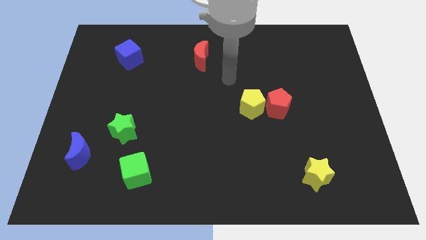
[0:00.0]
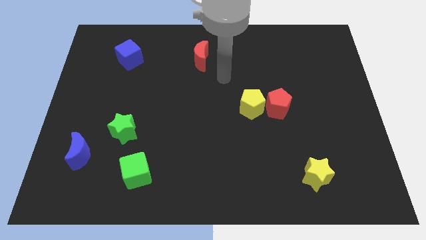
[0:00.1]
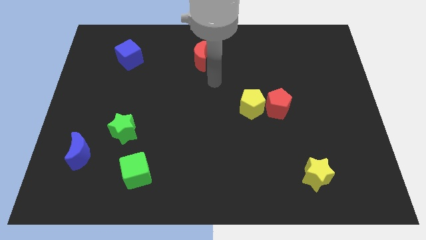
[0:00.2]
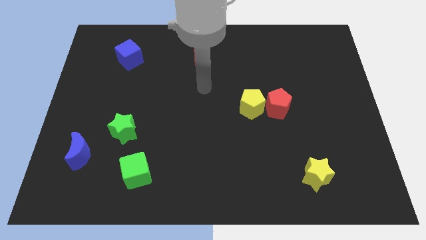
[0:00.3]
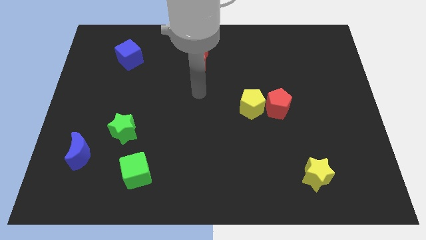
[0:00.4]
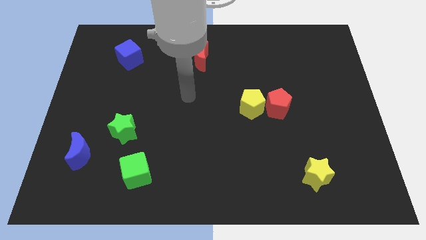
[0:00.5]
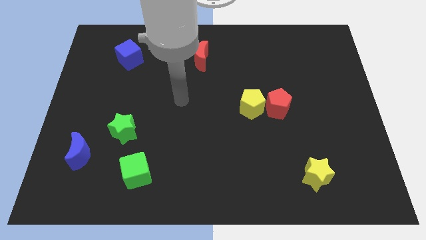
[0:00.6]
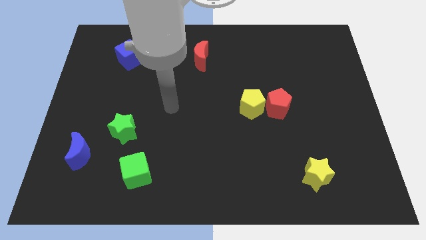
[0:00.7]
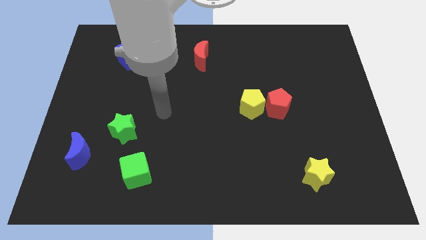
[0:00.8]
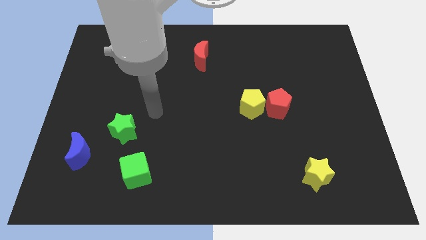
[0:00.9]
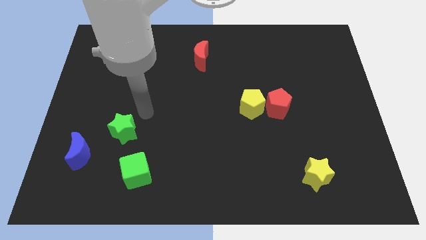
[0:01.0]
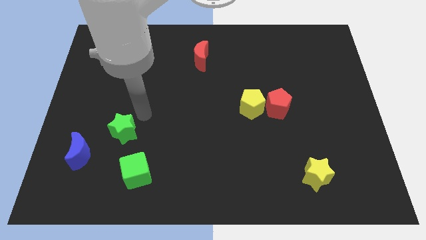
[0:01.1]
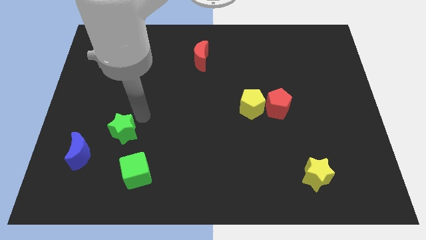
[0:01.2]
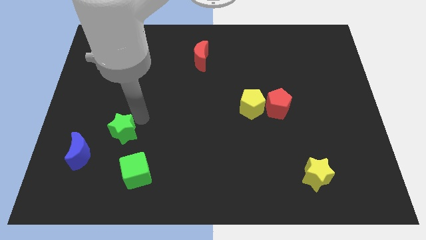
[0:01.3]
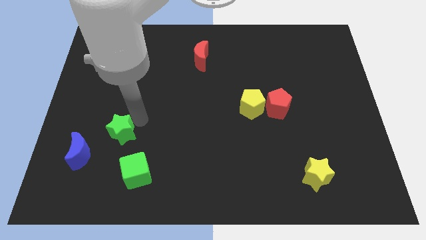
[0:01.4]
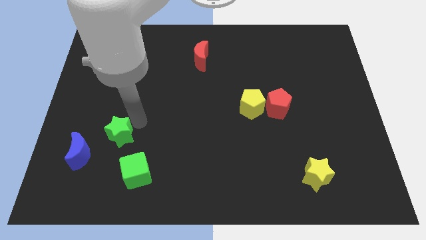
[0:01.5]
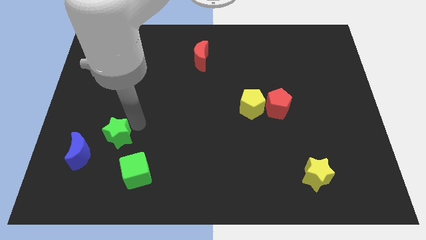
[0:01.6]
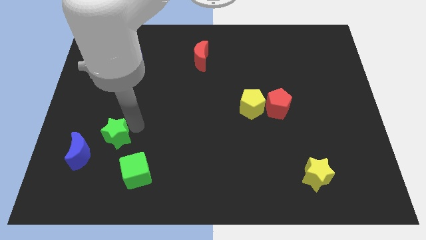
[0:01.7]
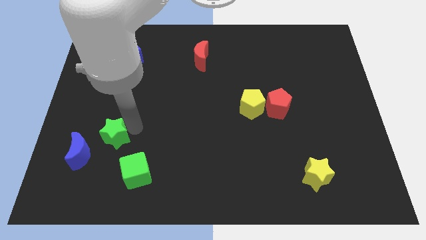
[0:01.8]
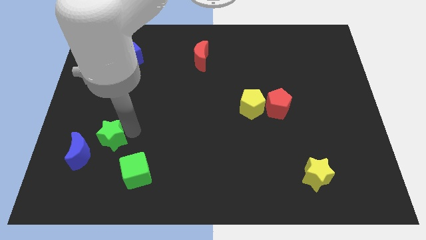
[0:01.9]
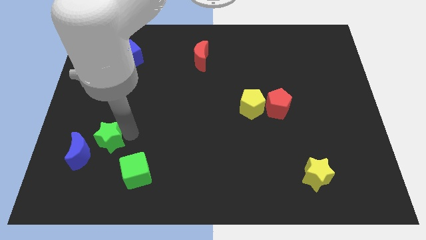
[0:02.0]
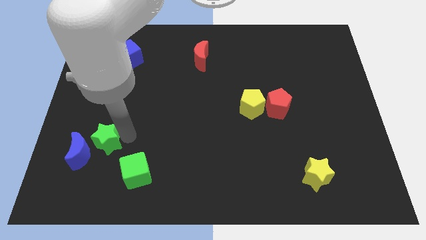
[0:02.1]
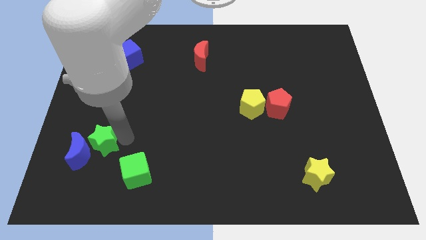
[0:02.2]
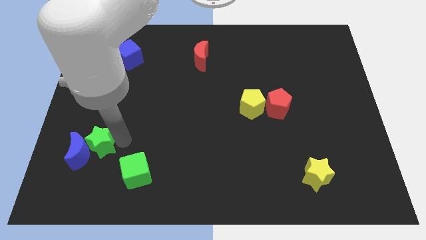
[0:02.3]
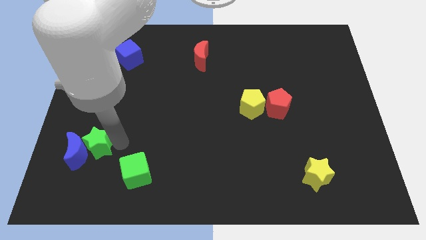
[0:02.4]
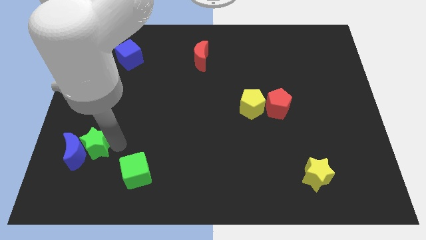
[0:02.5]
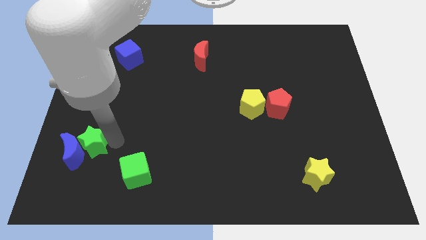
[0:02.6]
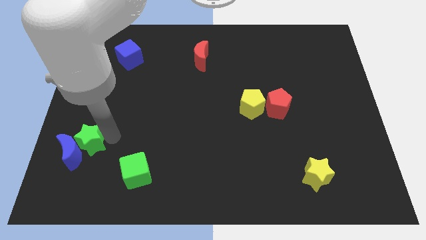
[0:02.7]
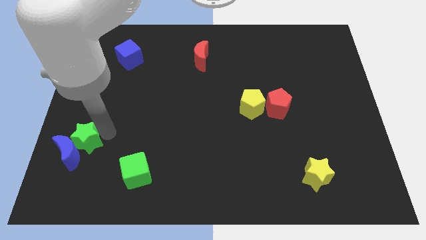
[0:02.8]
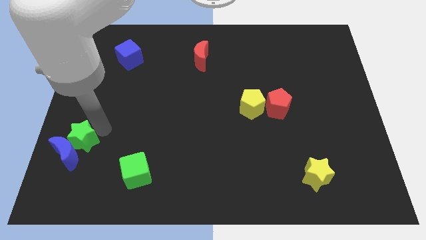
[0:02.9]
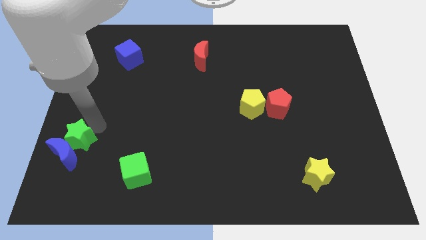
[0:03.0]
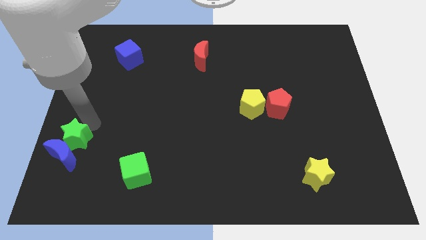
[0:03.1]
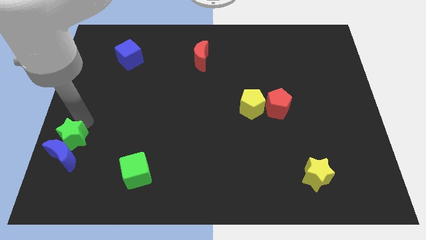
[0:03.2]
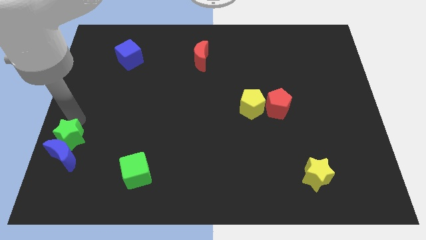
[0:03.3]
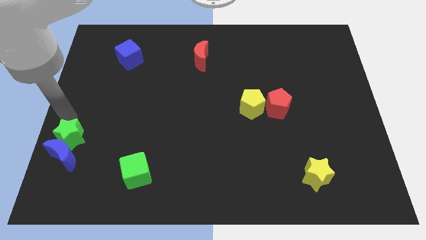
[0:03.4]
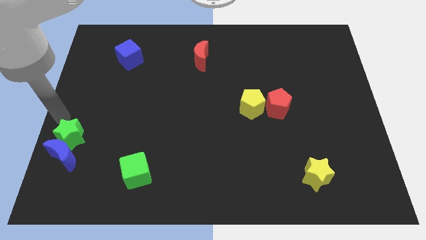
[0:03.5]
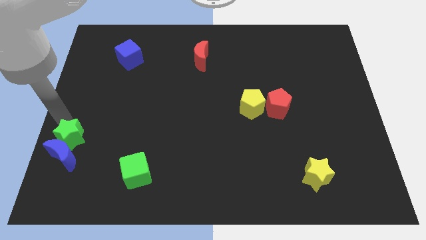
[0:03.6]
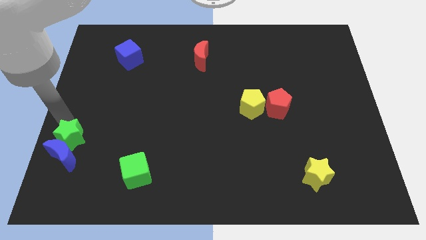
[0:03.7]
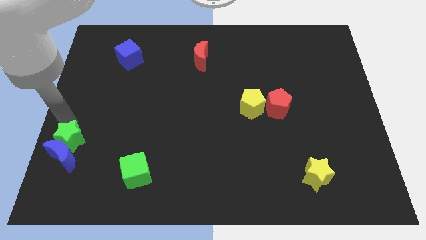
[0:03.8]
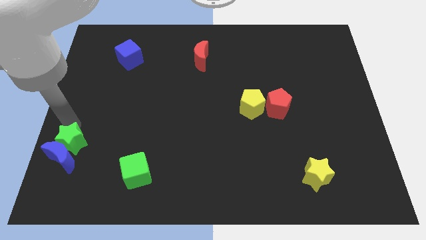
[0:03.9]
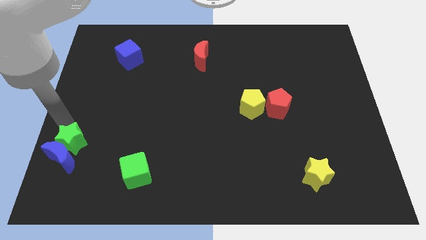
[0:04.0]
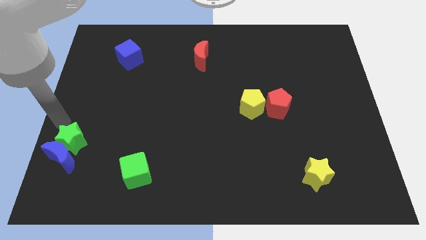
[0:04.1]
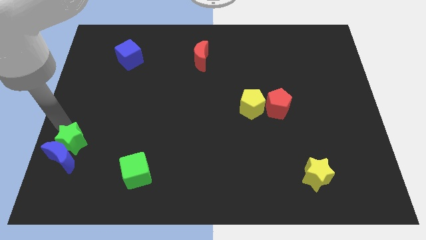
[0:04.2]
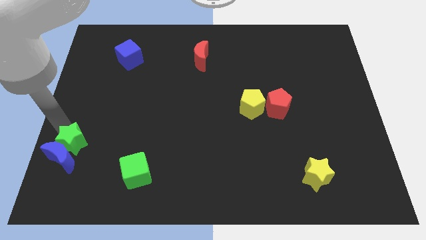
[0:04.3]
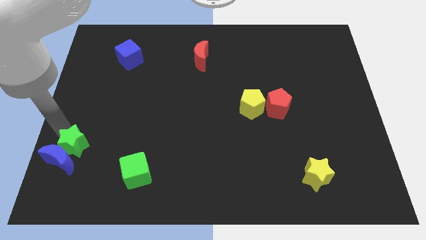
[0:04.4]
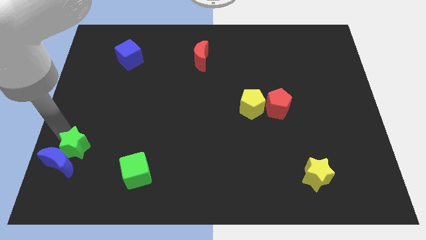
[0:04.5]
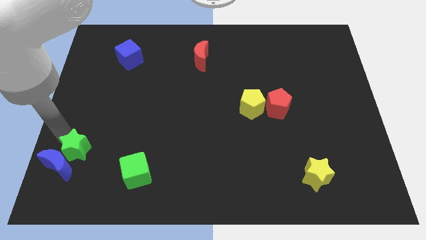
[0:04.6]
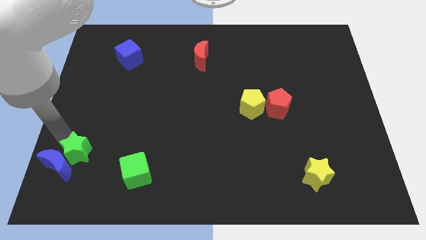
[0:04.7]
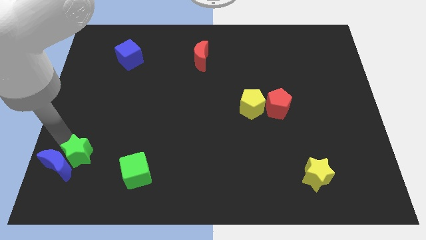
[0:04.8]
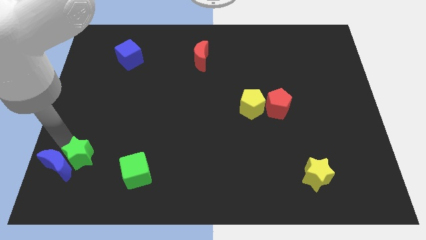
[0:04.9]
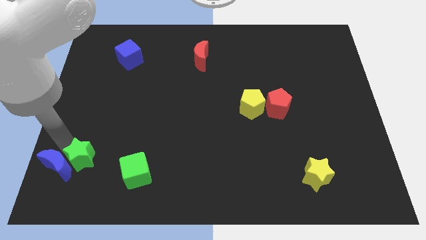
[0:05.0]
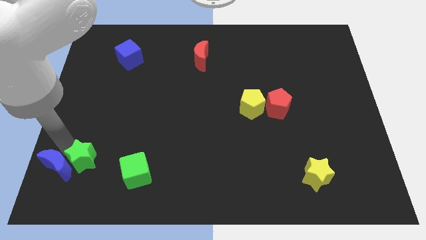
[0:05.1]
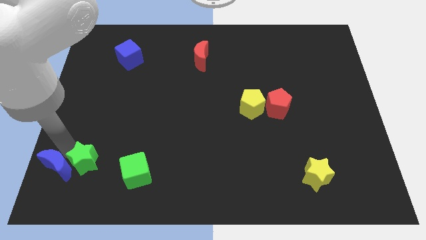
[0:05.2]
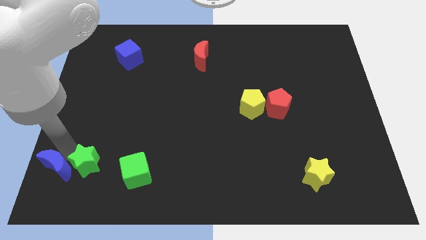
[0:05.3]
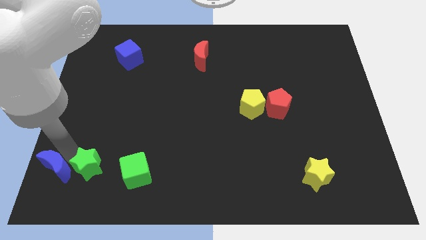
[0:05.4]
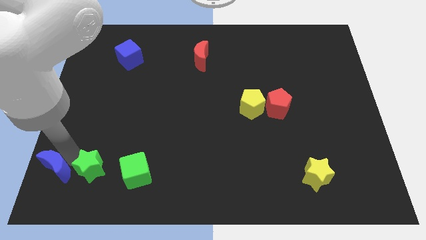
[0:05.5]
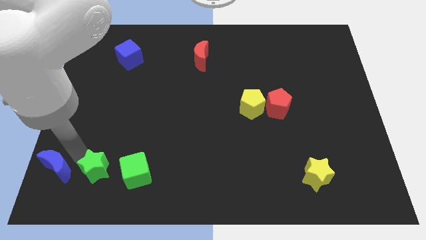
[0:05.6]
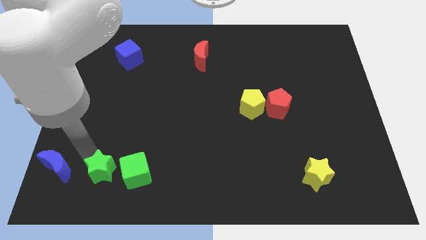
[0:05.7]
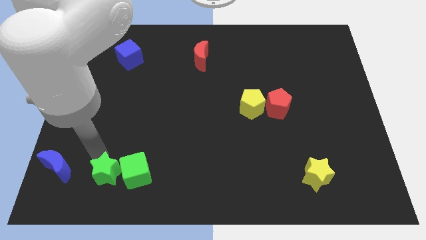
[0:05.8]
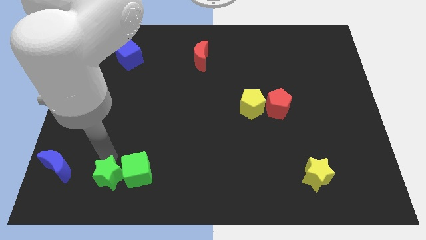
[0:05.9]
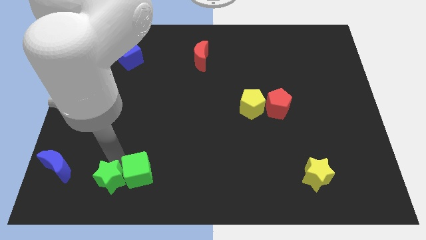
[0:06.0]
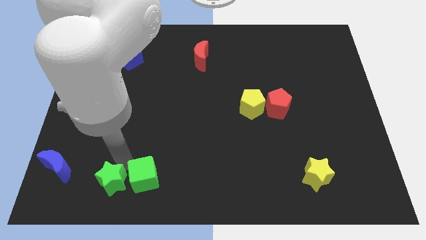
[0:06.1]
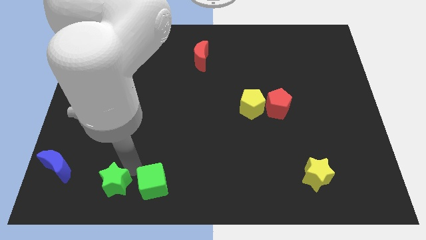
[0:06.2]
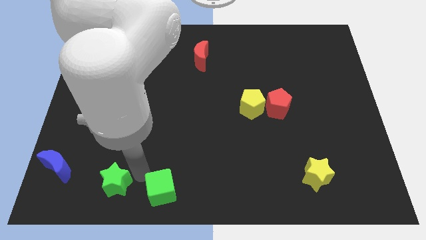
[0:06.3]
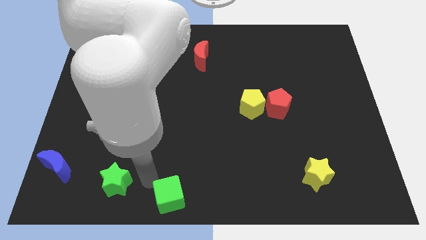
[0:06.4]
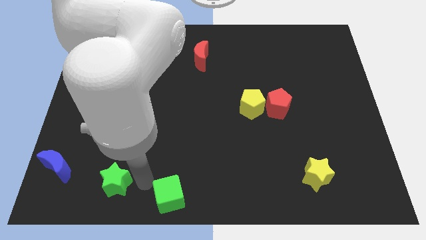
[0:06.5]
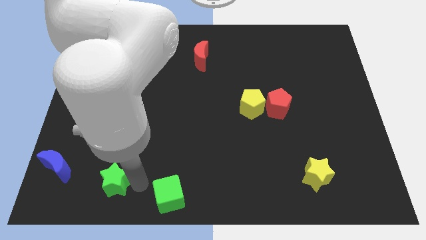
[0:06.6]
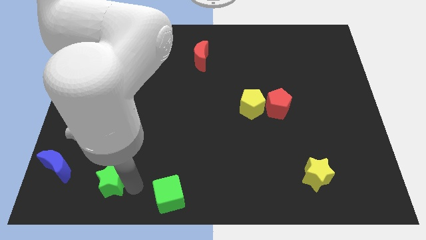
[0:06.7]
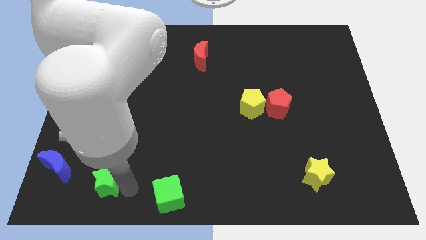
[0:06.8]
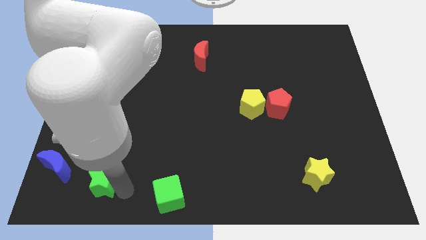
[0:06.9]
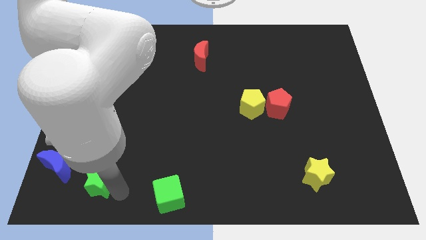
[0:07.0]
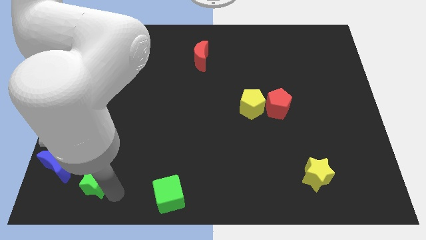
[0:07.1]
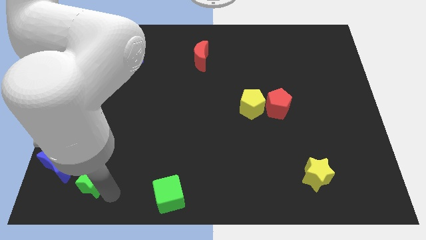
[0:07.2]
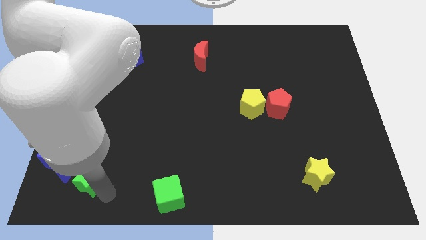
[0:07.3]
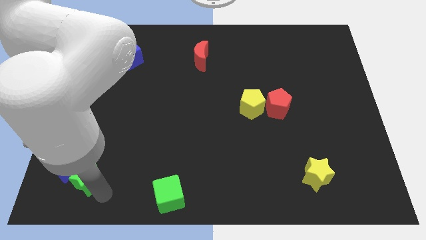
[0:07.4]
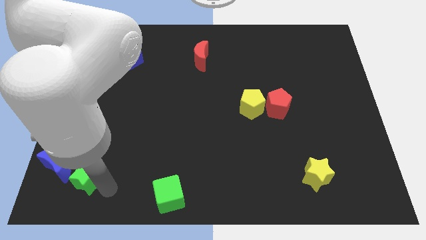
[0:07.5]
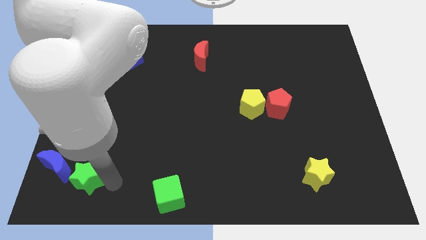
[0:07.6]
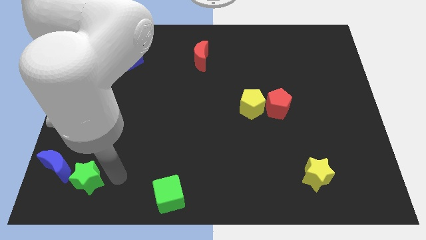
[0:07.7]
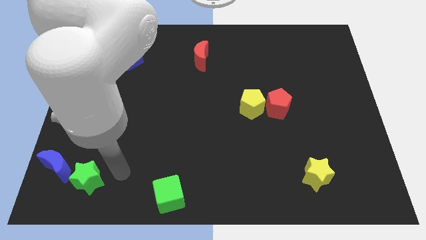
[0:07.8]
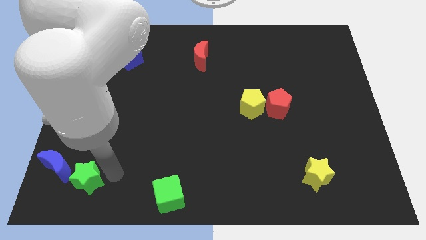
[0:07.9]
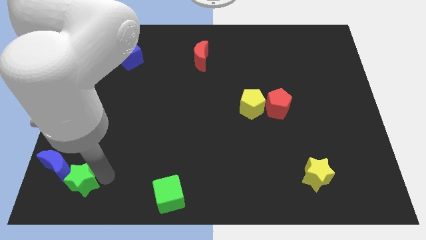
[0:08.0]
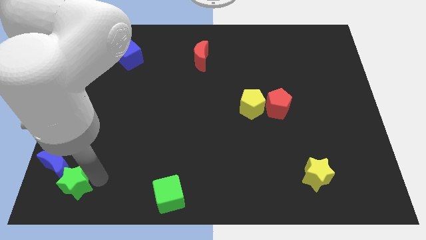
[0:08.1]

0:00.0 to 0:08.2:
put the green star to the bottom left of the board
